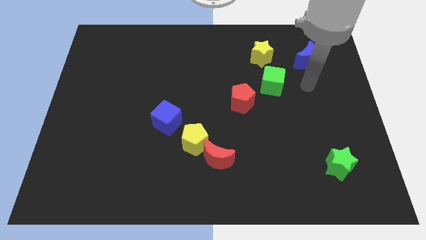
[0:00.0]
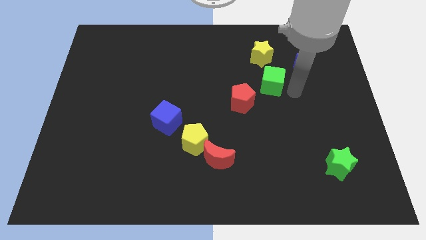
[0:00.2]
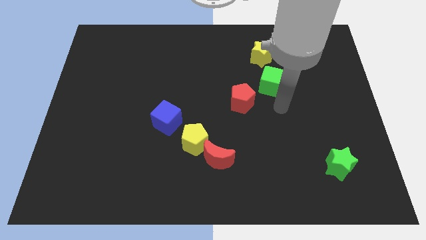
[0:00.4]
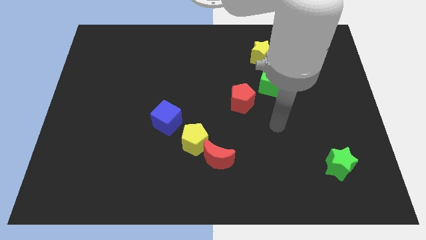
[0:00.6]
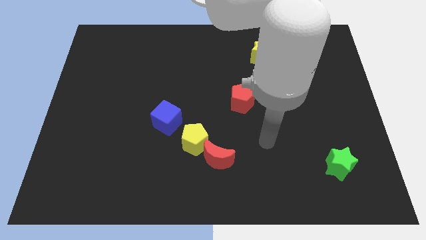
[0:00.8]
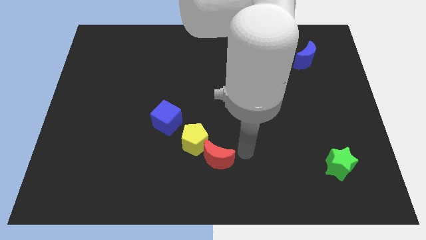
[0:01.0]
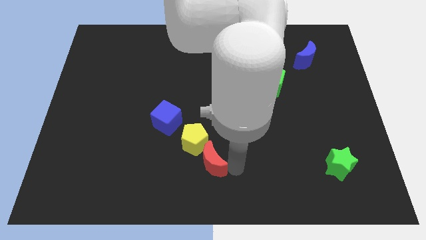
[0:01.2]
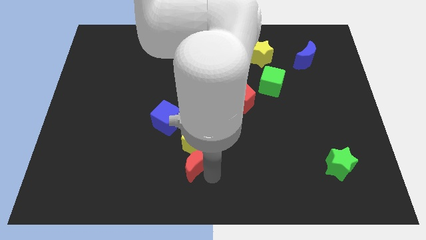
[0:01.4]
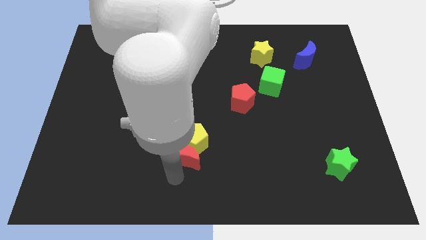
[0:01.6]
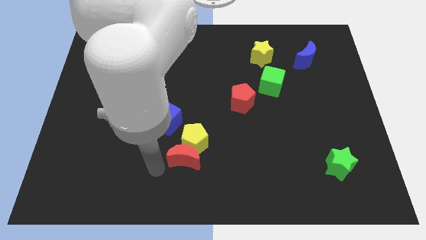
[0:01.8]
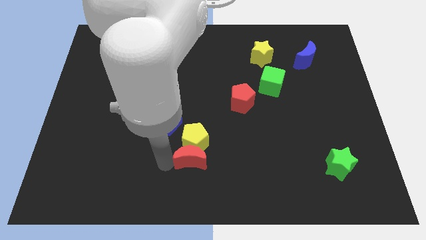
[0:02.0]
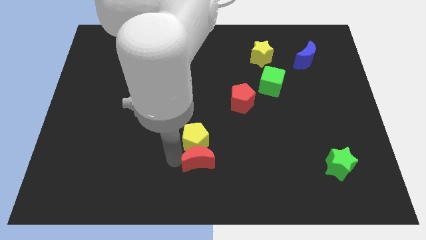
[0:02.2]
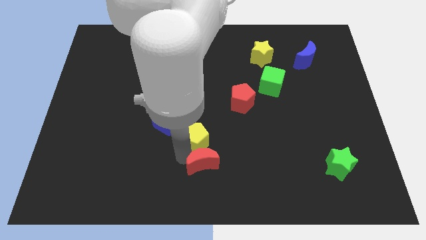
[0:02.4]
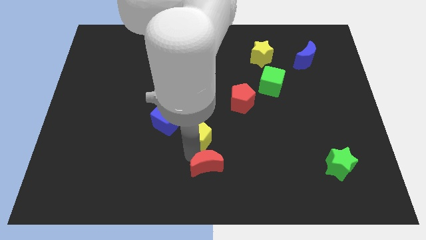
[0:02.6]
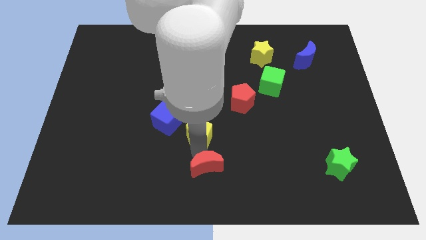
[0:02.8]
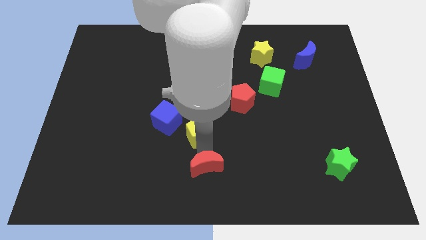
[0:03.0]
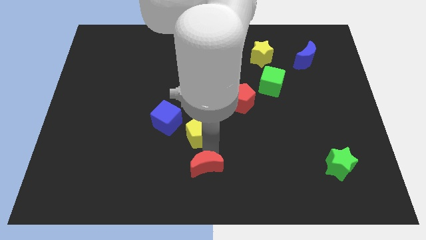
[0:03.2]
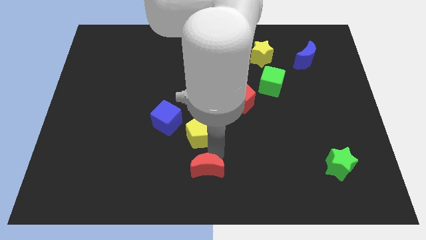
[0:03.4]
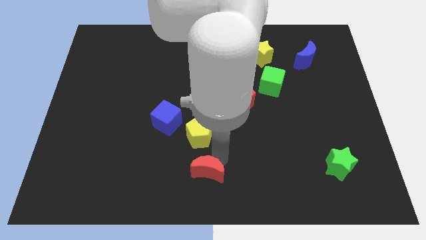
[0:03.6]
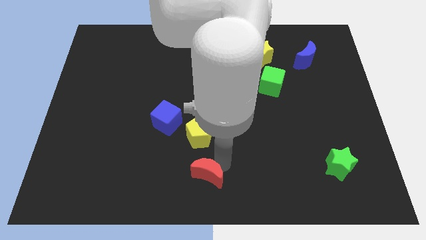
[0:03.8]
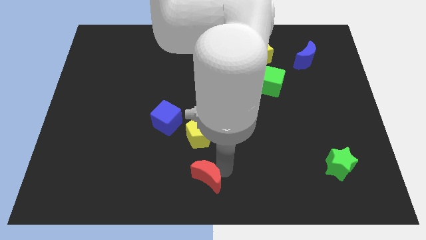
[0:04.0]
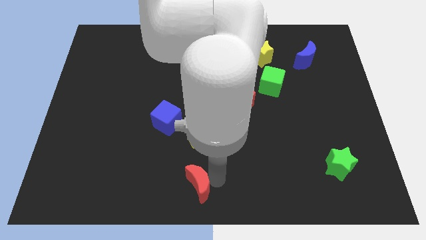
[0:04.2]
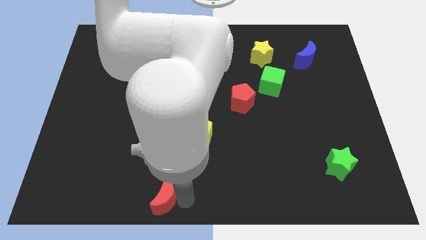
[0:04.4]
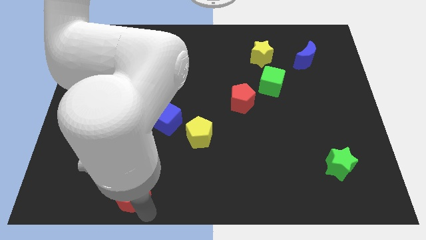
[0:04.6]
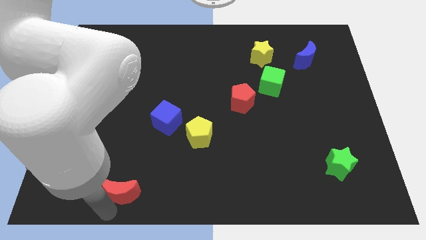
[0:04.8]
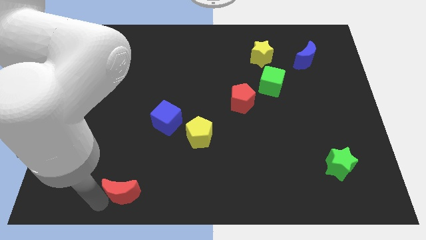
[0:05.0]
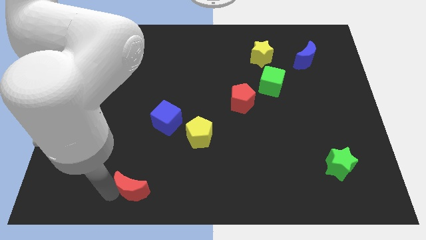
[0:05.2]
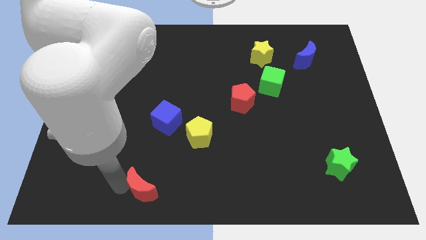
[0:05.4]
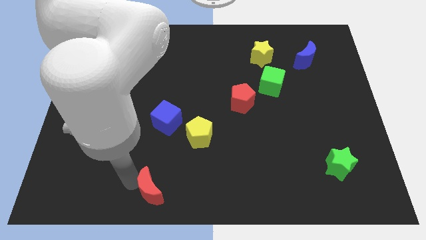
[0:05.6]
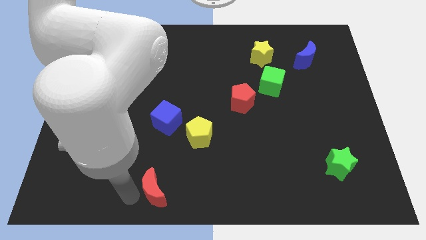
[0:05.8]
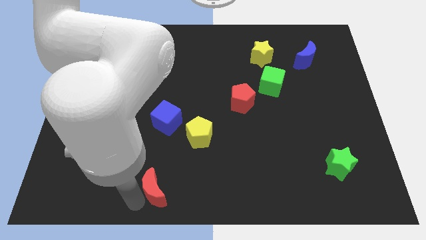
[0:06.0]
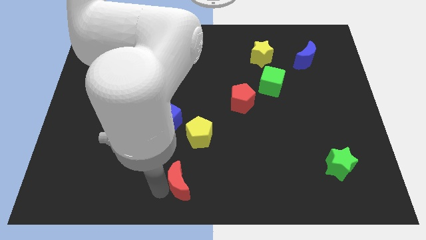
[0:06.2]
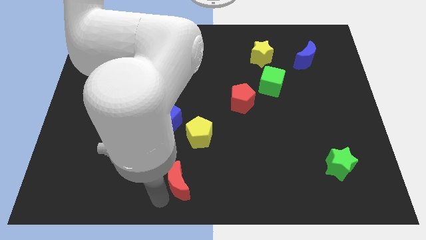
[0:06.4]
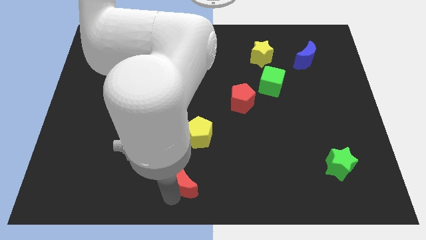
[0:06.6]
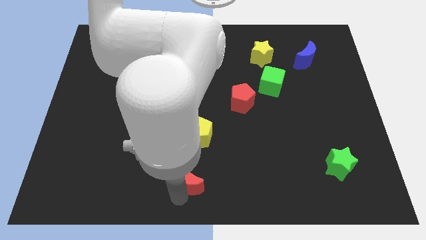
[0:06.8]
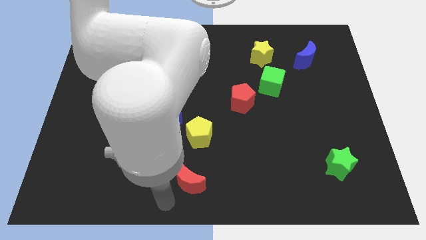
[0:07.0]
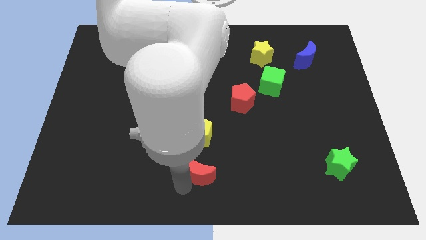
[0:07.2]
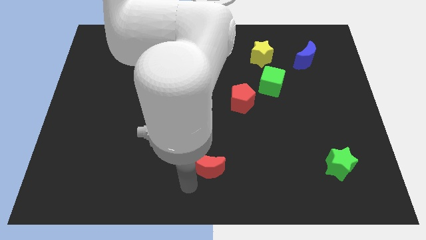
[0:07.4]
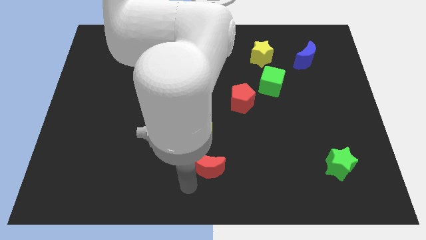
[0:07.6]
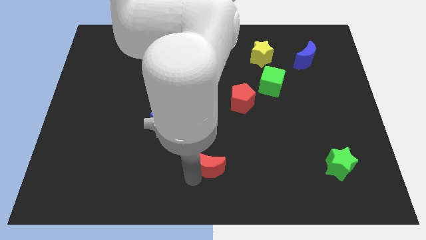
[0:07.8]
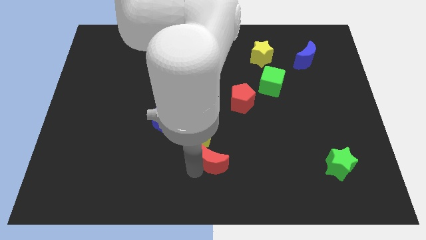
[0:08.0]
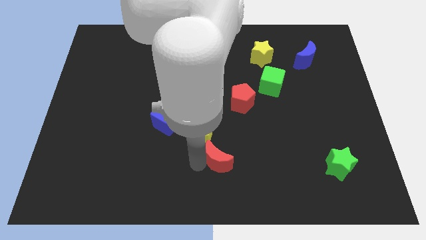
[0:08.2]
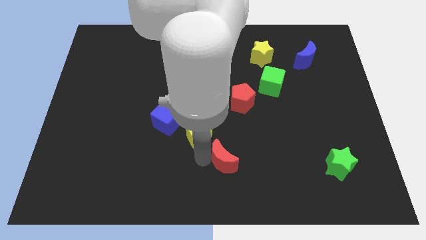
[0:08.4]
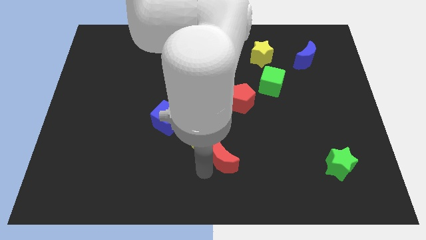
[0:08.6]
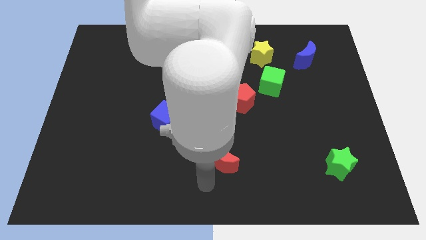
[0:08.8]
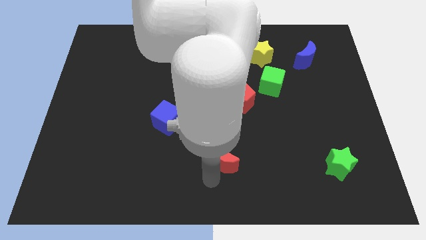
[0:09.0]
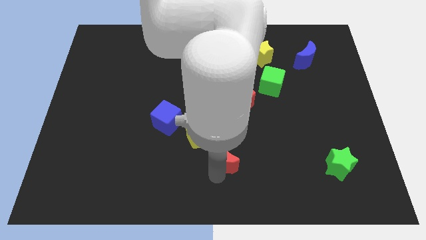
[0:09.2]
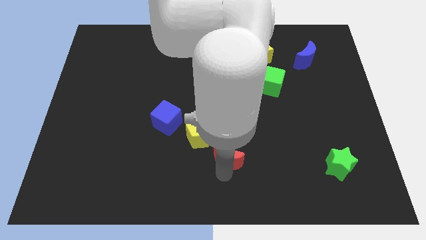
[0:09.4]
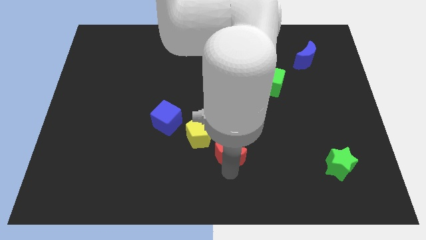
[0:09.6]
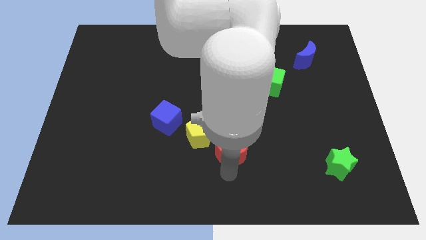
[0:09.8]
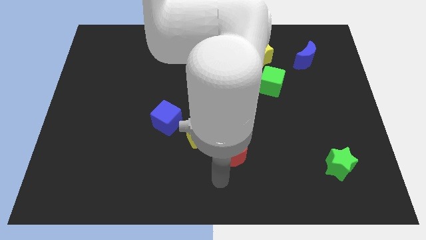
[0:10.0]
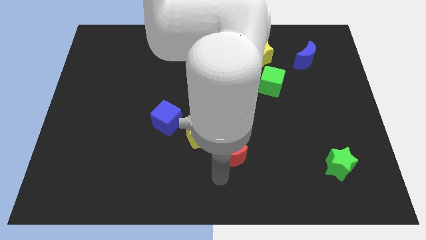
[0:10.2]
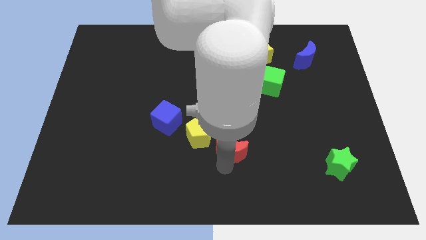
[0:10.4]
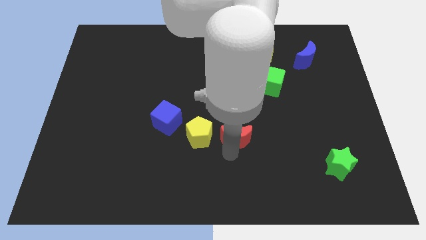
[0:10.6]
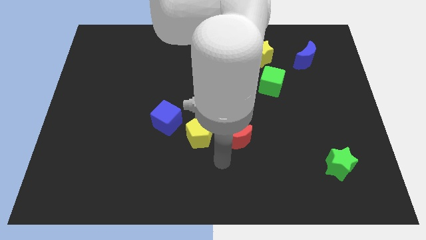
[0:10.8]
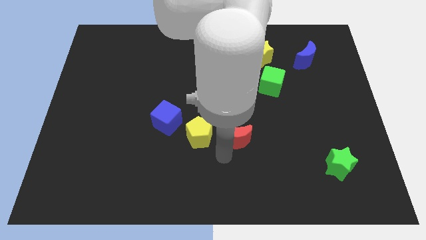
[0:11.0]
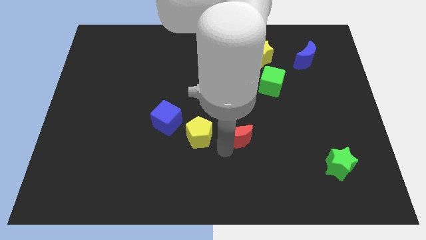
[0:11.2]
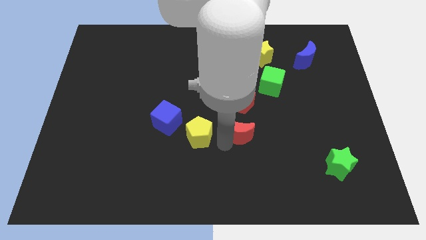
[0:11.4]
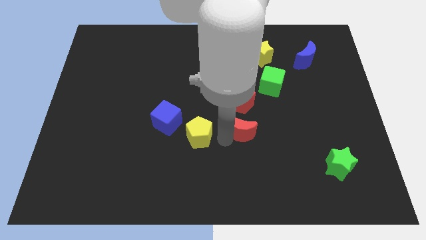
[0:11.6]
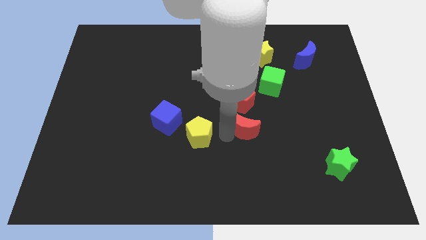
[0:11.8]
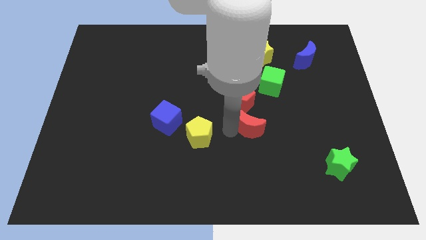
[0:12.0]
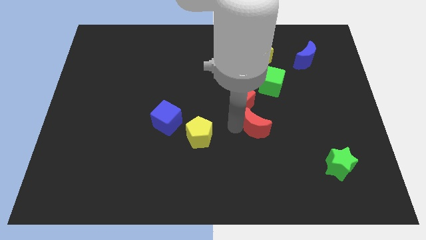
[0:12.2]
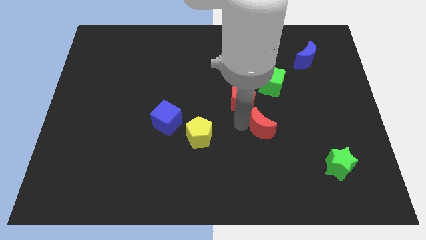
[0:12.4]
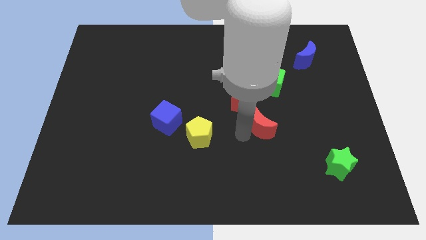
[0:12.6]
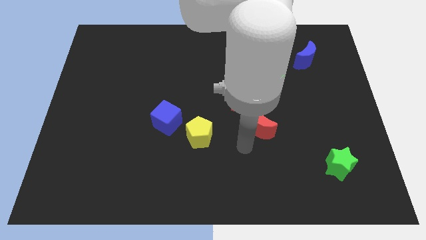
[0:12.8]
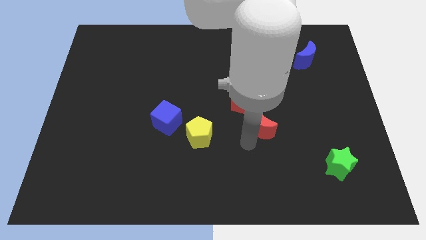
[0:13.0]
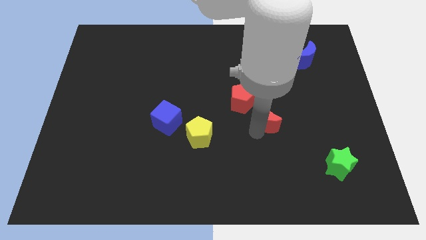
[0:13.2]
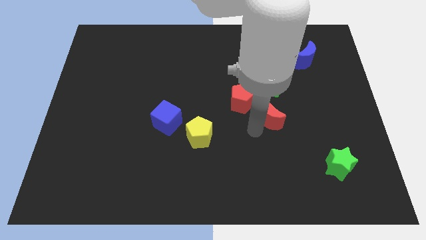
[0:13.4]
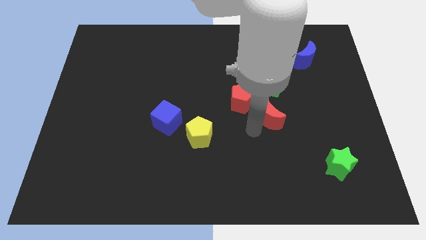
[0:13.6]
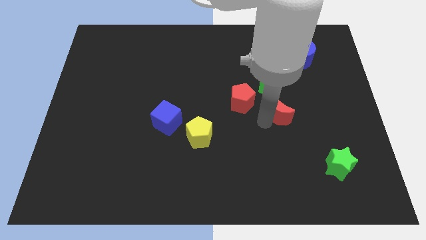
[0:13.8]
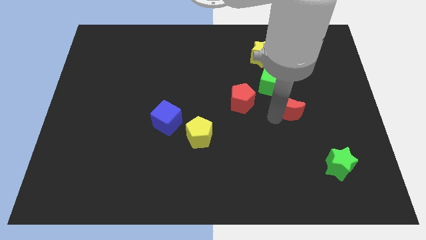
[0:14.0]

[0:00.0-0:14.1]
move the red moon up and then right

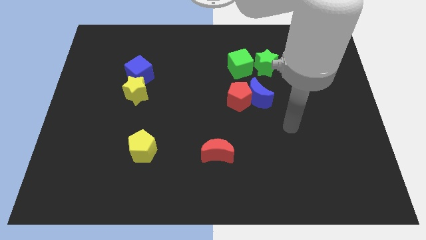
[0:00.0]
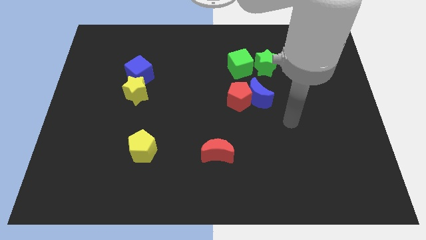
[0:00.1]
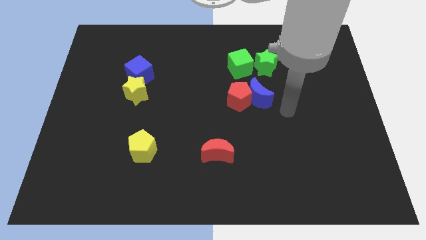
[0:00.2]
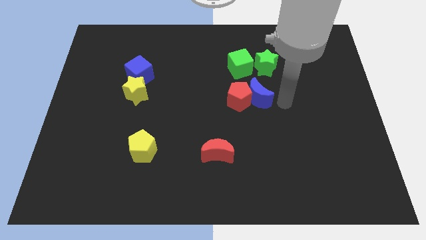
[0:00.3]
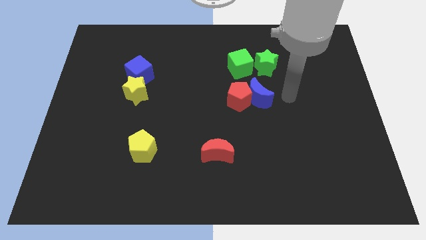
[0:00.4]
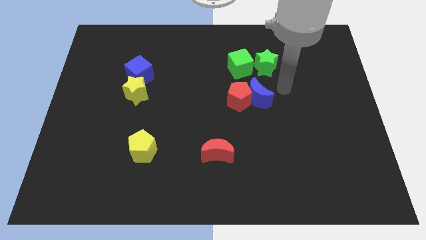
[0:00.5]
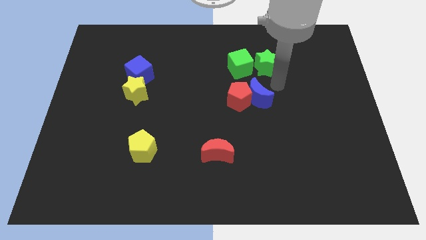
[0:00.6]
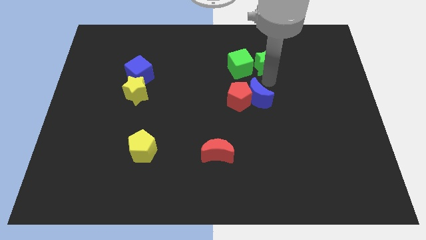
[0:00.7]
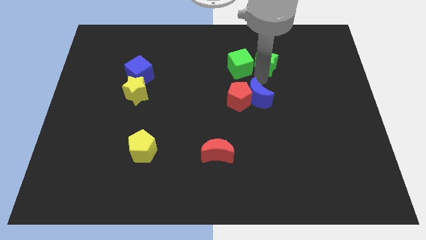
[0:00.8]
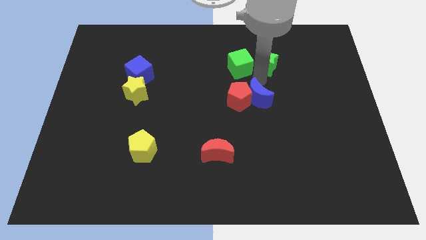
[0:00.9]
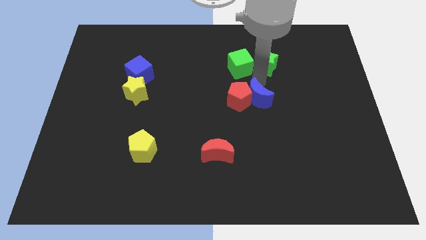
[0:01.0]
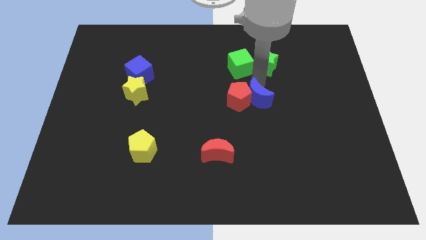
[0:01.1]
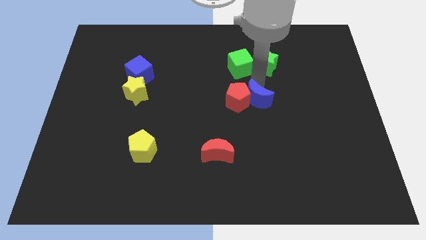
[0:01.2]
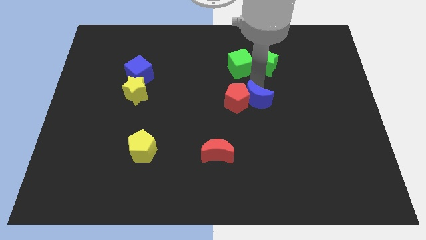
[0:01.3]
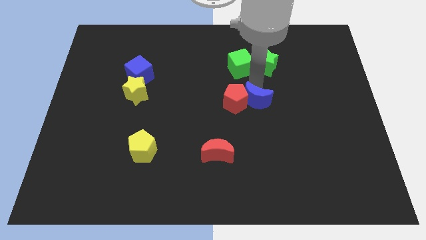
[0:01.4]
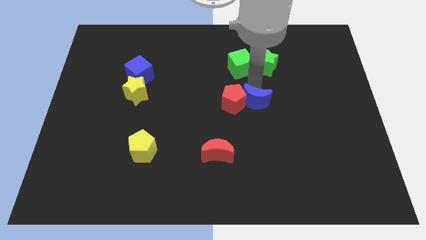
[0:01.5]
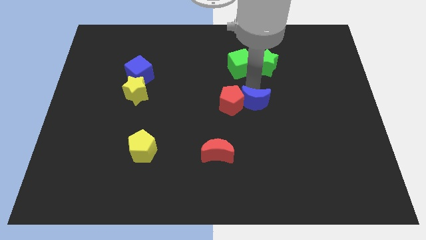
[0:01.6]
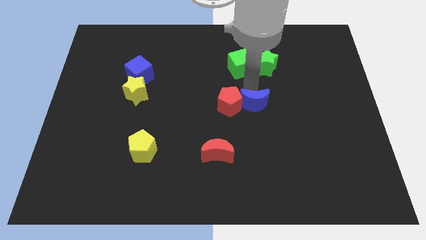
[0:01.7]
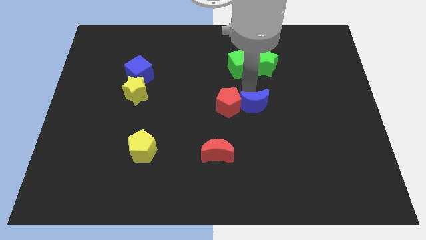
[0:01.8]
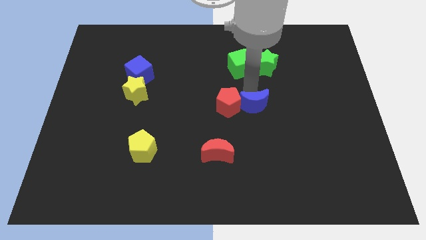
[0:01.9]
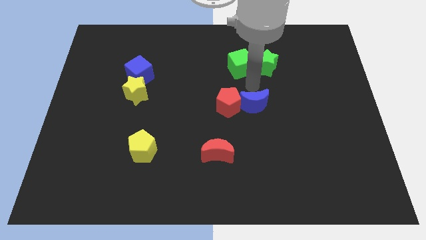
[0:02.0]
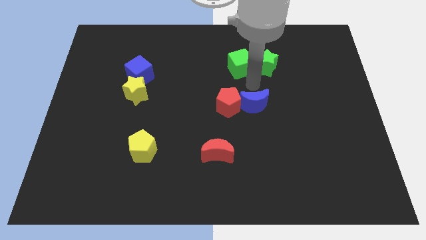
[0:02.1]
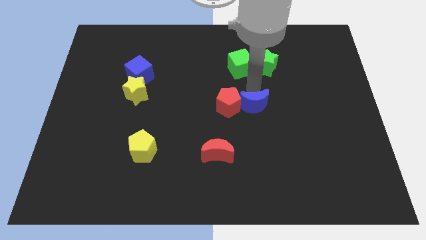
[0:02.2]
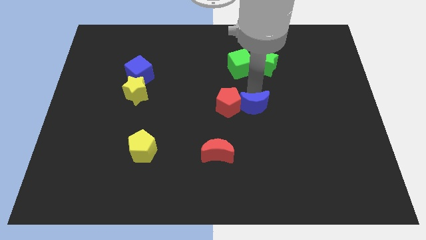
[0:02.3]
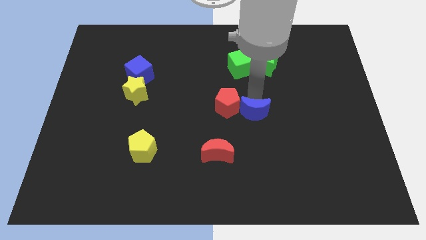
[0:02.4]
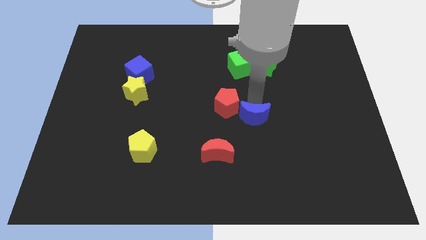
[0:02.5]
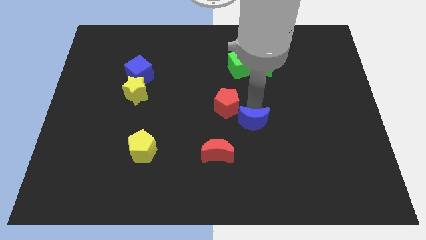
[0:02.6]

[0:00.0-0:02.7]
slightly move the blue moon downwards
